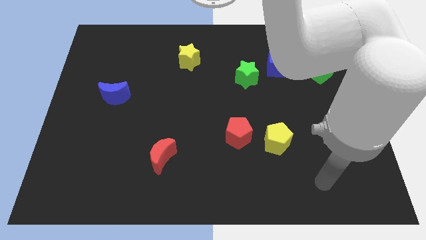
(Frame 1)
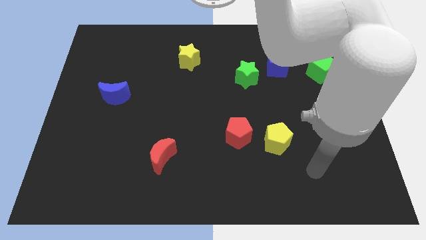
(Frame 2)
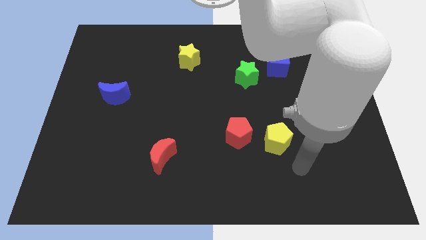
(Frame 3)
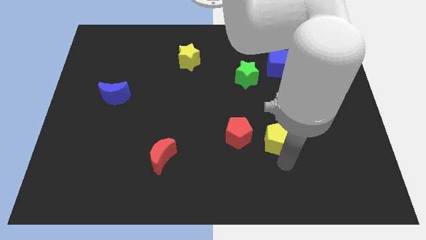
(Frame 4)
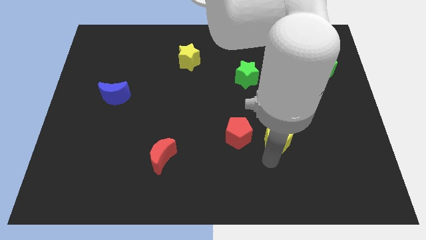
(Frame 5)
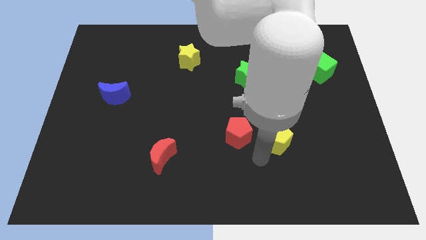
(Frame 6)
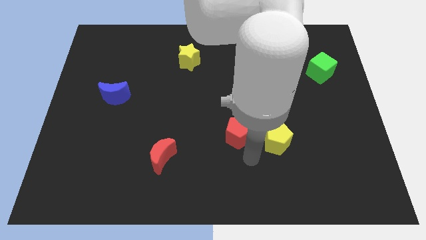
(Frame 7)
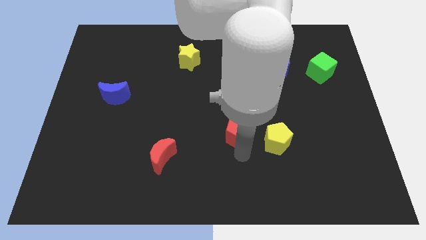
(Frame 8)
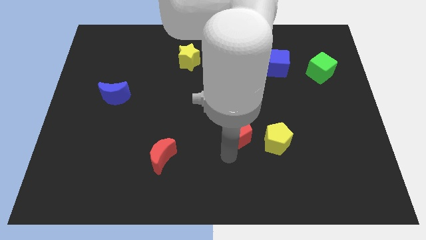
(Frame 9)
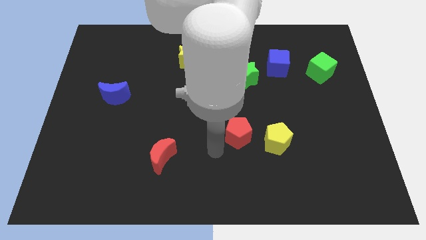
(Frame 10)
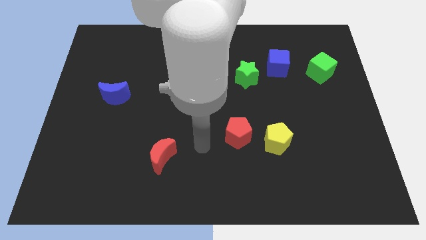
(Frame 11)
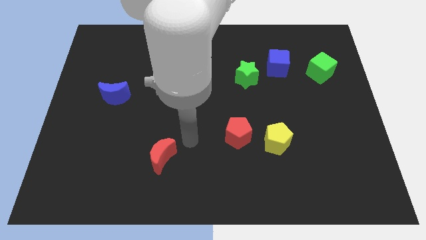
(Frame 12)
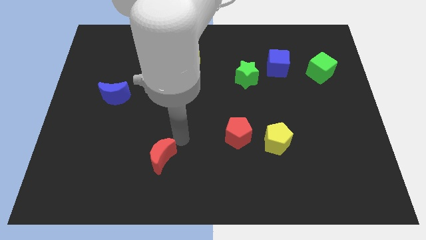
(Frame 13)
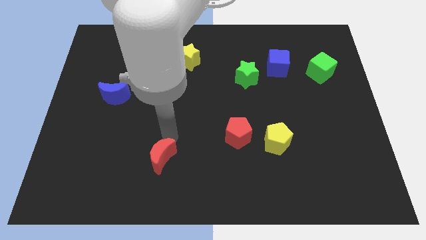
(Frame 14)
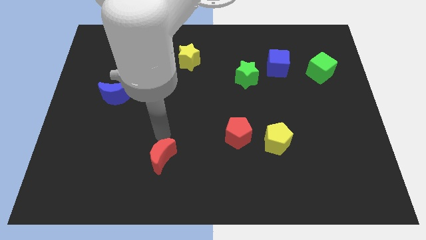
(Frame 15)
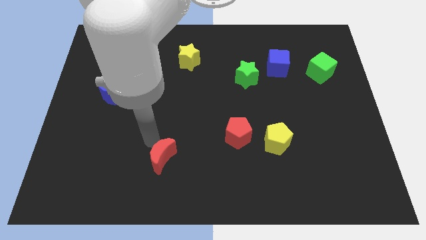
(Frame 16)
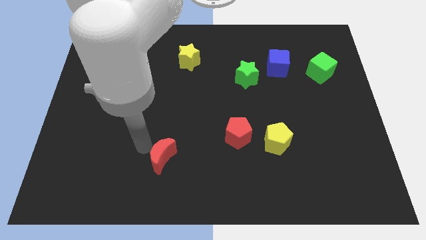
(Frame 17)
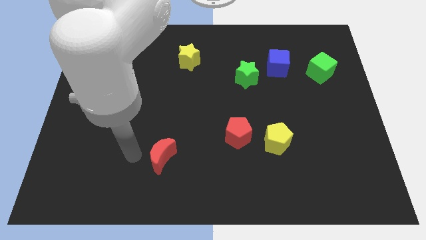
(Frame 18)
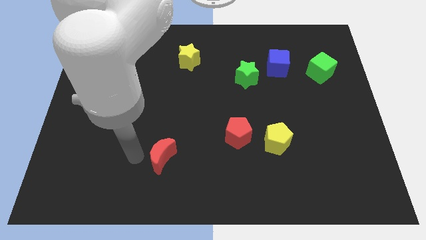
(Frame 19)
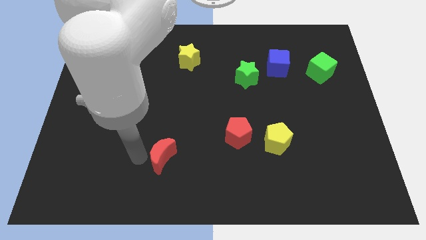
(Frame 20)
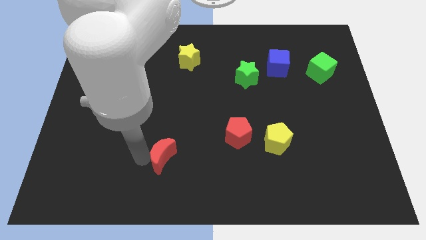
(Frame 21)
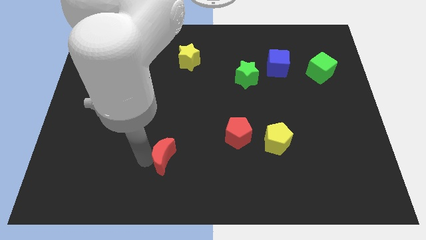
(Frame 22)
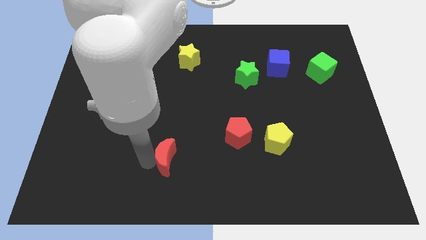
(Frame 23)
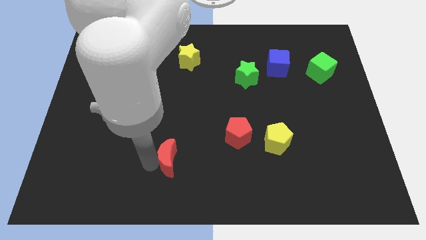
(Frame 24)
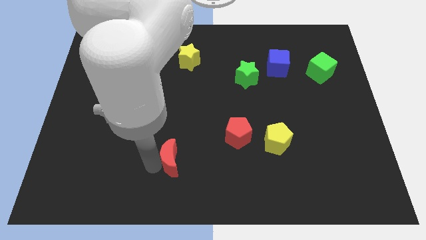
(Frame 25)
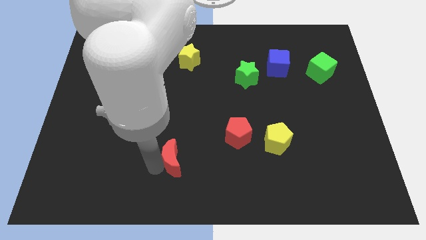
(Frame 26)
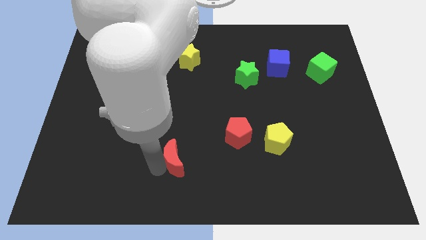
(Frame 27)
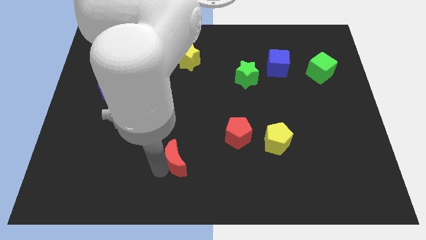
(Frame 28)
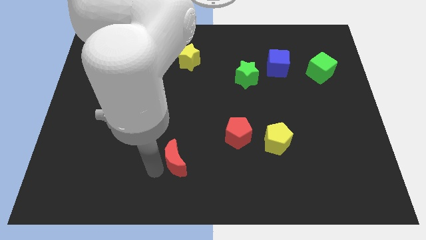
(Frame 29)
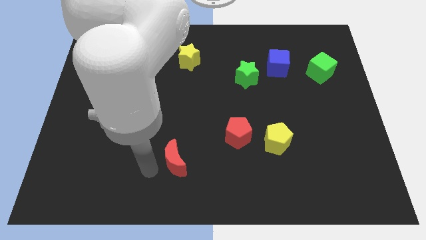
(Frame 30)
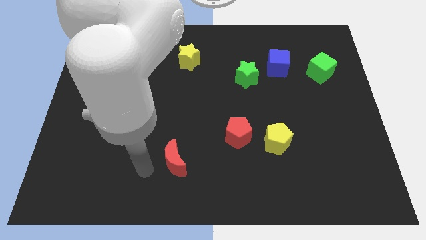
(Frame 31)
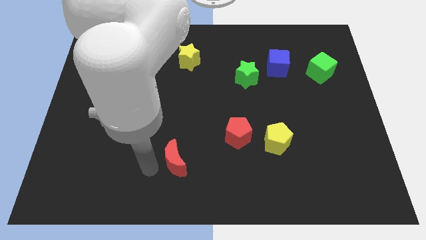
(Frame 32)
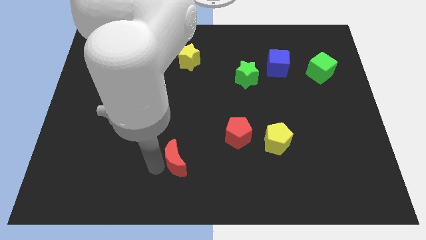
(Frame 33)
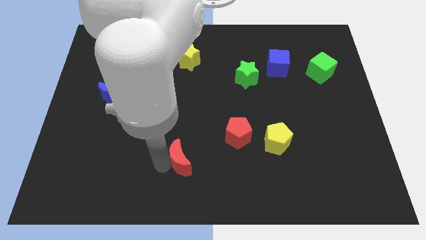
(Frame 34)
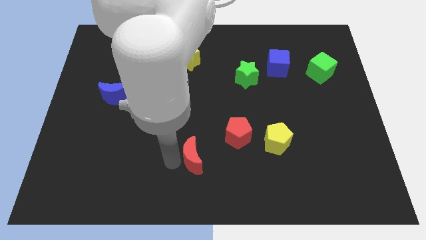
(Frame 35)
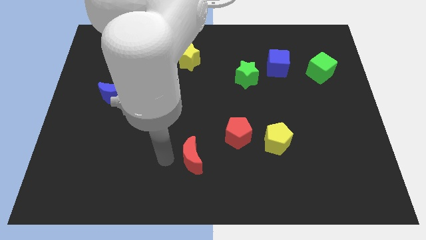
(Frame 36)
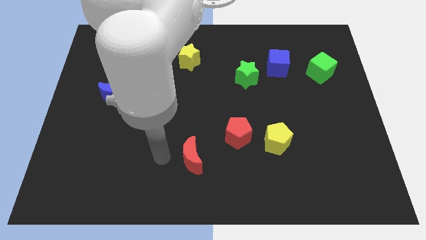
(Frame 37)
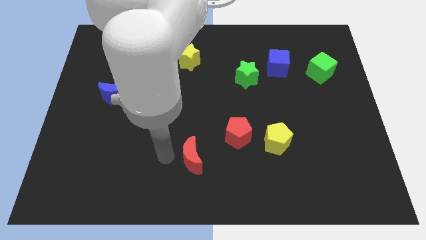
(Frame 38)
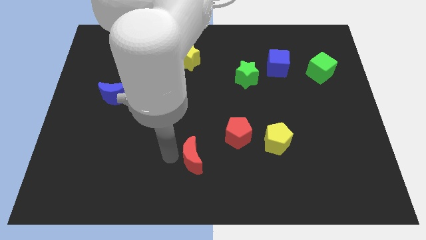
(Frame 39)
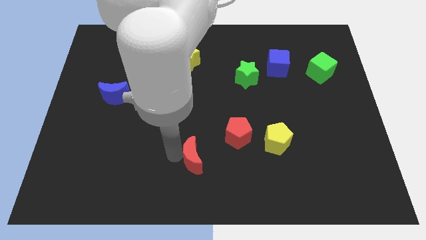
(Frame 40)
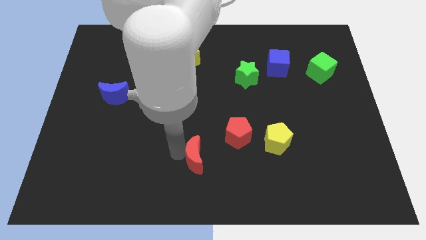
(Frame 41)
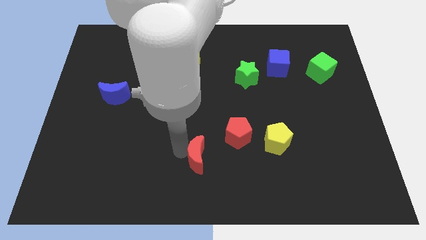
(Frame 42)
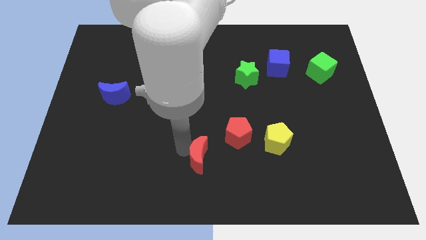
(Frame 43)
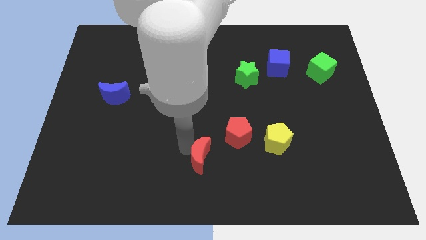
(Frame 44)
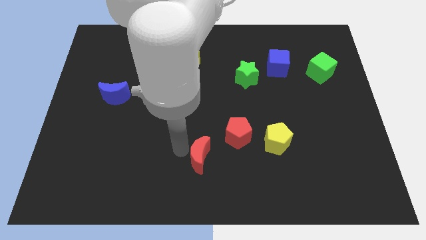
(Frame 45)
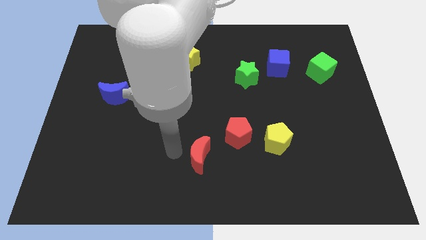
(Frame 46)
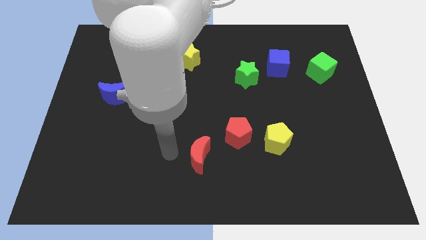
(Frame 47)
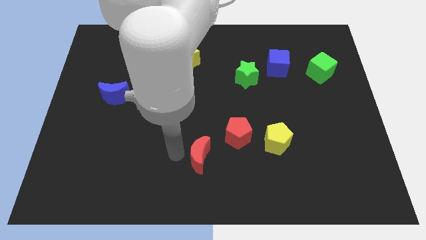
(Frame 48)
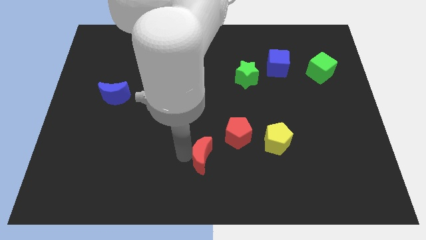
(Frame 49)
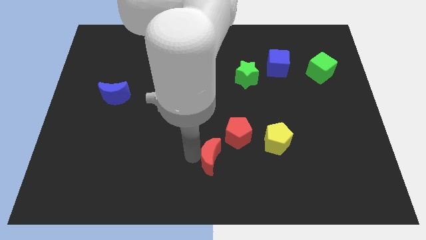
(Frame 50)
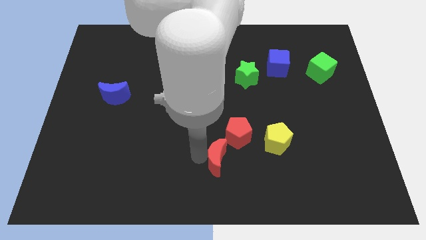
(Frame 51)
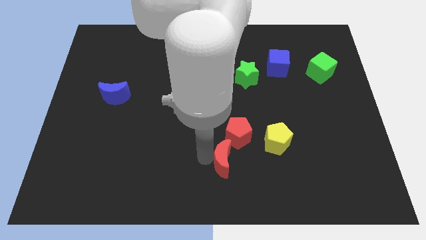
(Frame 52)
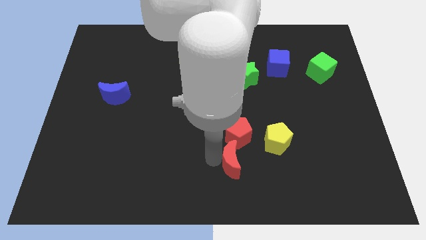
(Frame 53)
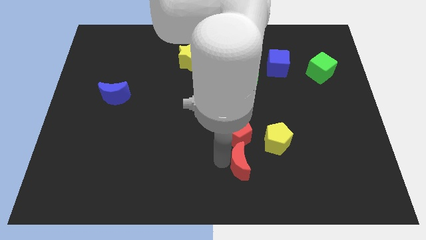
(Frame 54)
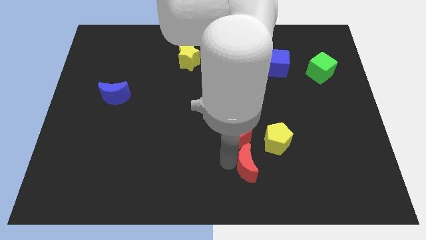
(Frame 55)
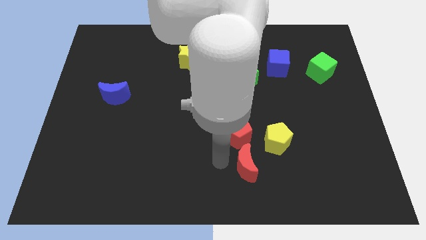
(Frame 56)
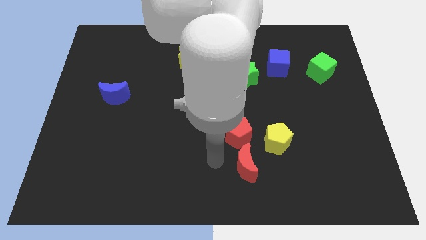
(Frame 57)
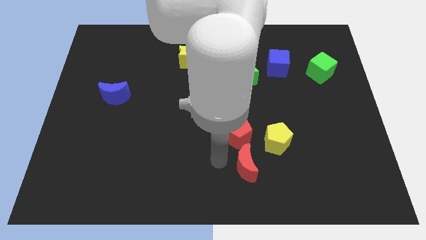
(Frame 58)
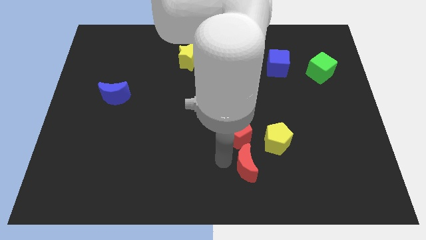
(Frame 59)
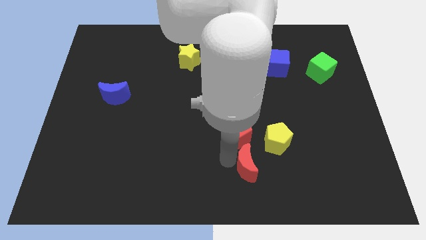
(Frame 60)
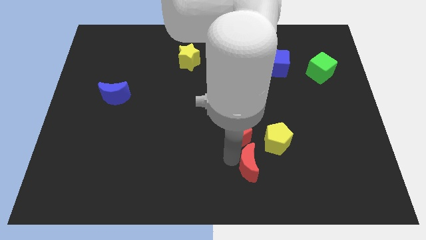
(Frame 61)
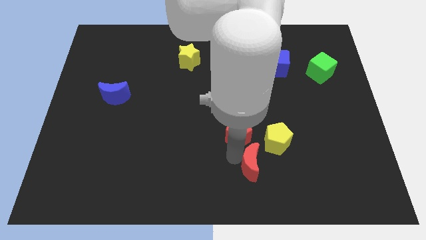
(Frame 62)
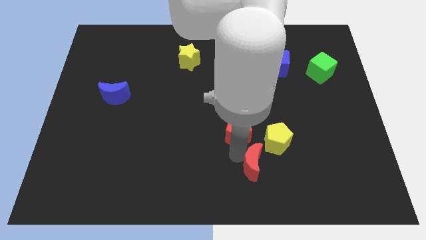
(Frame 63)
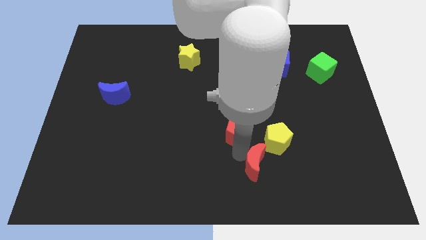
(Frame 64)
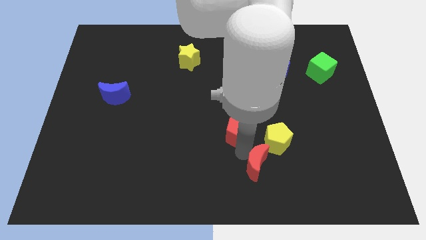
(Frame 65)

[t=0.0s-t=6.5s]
slide the red moon right

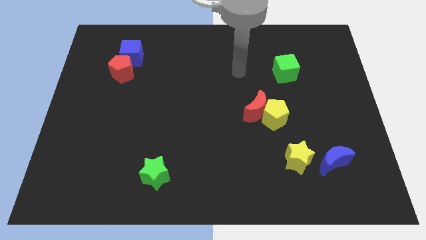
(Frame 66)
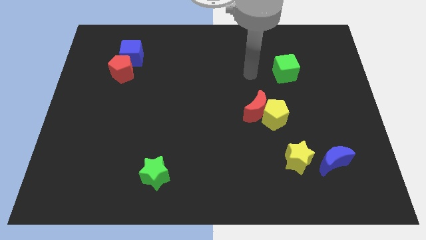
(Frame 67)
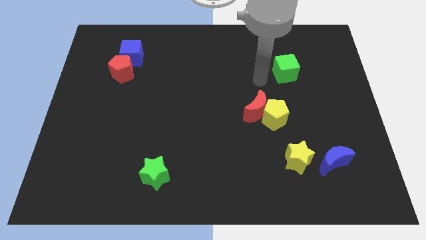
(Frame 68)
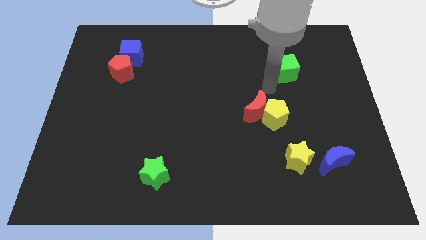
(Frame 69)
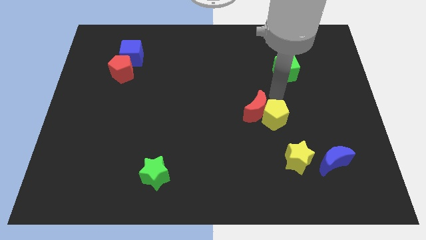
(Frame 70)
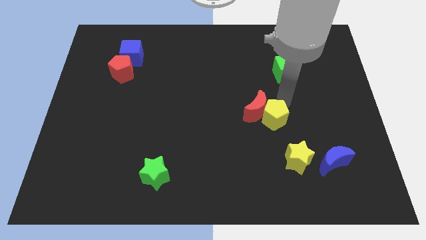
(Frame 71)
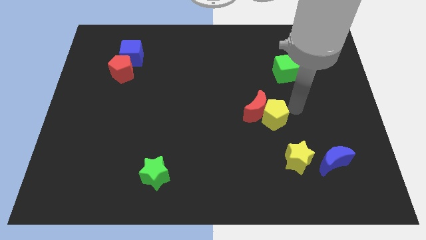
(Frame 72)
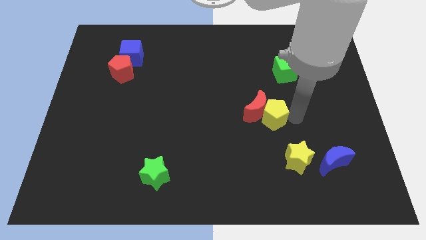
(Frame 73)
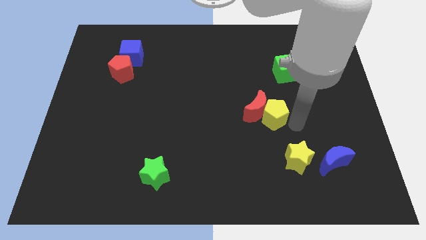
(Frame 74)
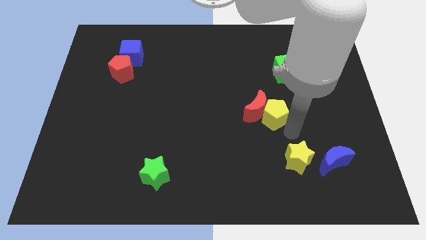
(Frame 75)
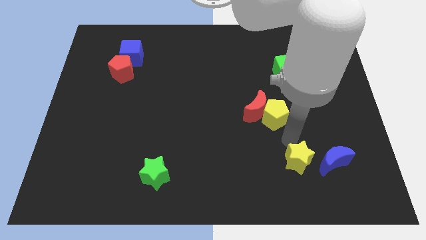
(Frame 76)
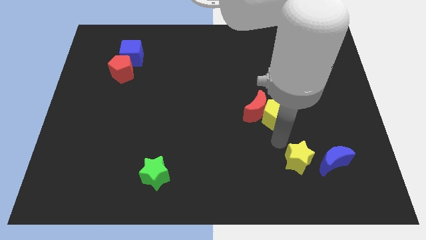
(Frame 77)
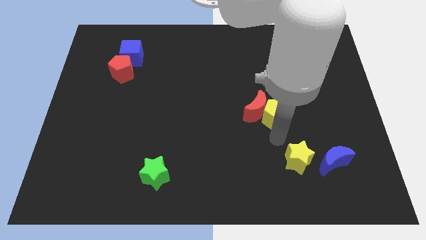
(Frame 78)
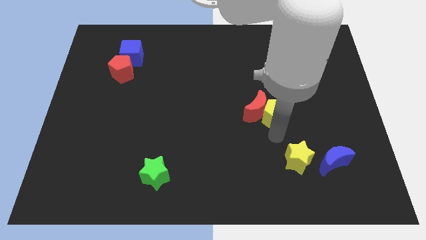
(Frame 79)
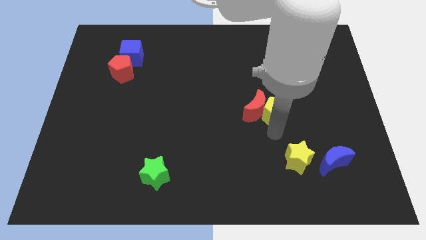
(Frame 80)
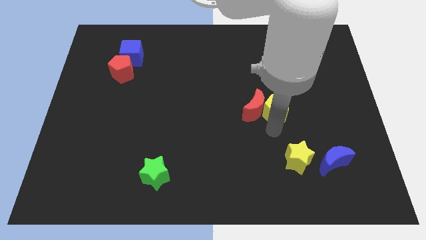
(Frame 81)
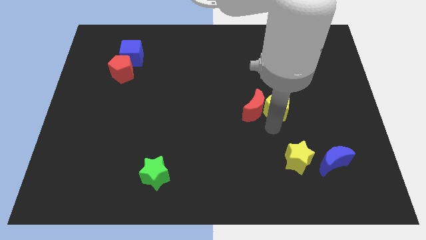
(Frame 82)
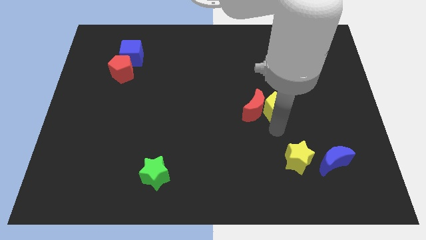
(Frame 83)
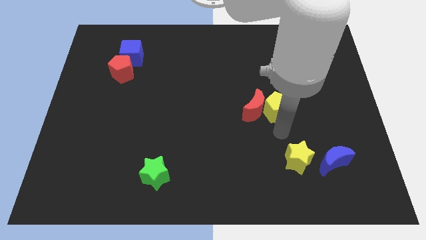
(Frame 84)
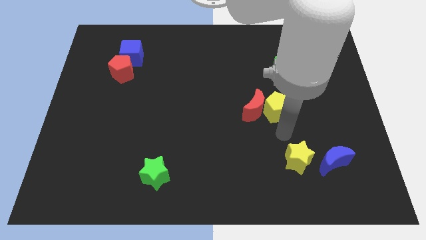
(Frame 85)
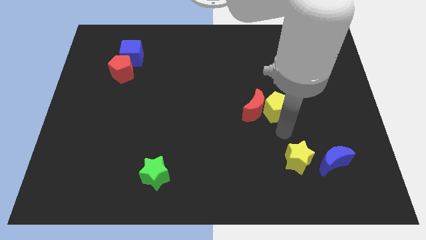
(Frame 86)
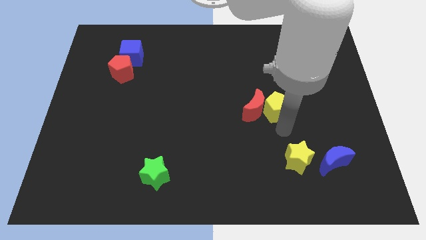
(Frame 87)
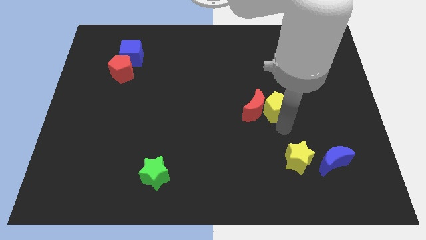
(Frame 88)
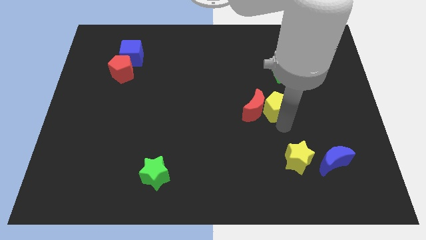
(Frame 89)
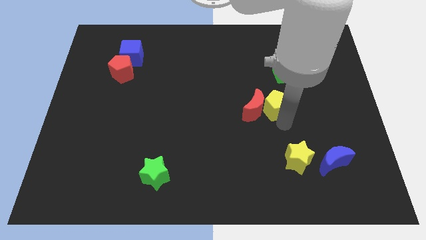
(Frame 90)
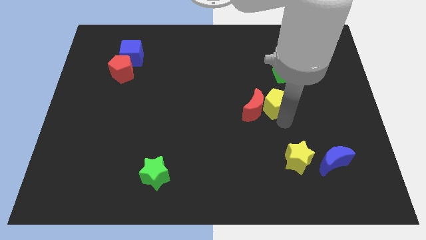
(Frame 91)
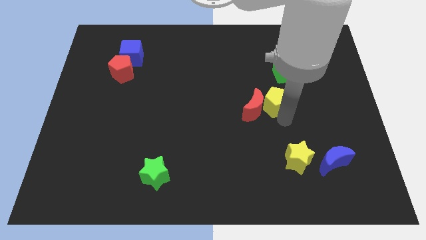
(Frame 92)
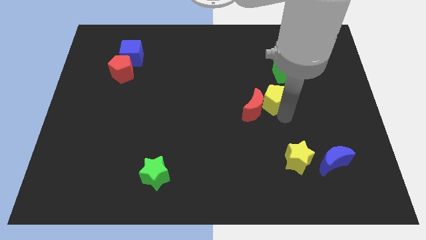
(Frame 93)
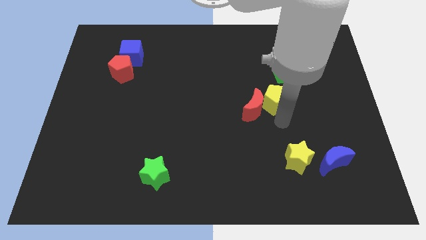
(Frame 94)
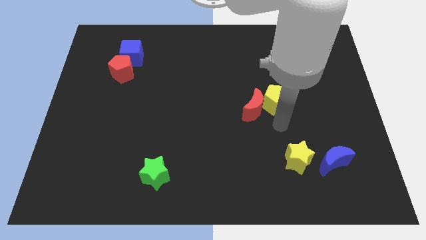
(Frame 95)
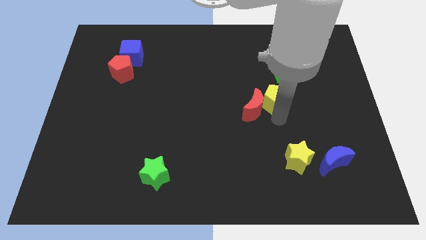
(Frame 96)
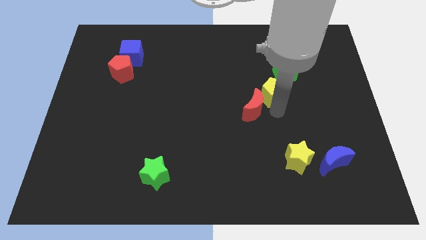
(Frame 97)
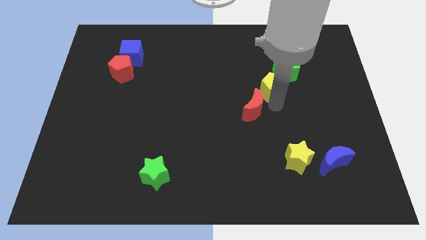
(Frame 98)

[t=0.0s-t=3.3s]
push the yellow pentagon slightly upwards
